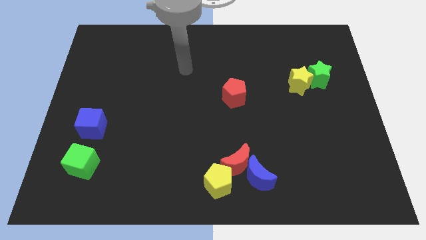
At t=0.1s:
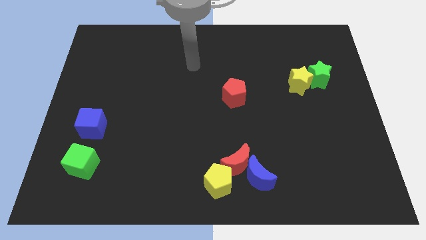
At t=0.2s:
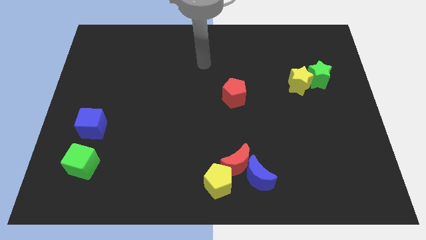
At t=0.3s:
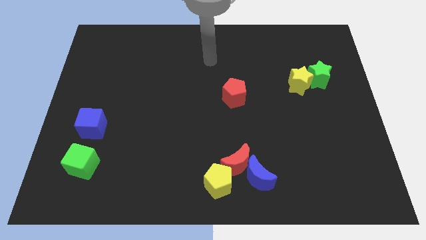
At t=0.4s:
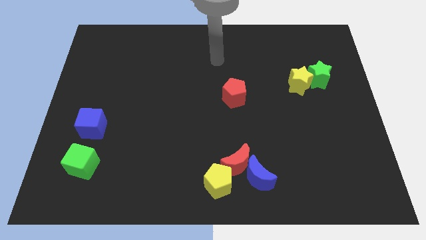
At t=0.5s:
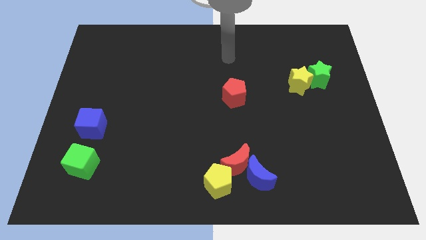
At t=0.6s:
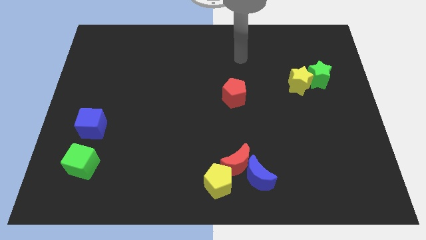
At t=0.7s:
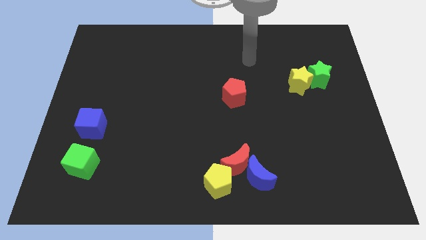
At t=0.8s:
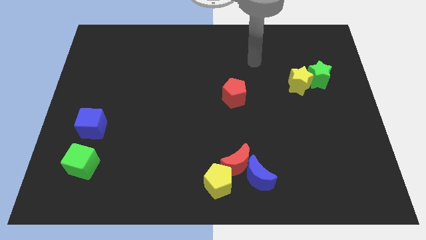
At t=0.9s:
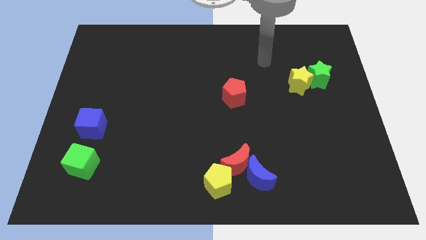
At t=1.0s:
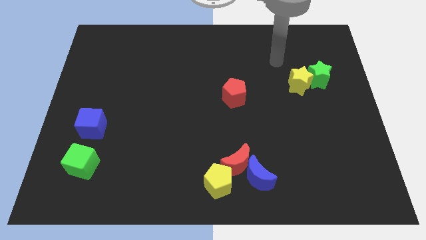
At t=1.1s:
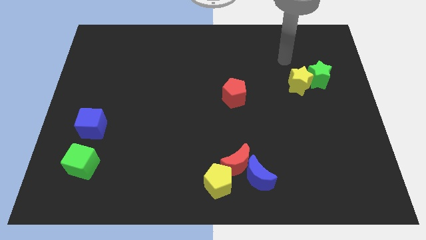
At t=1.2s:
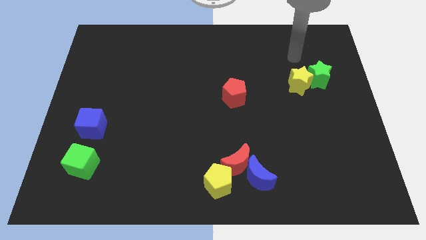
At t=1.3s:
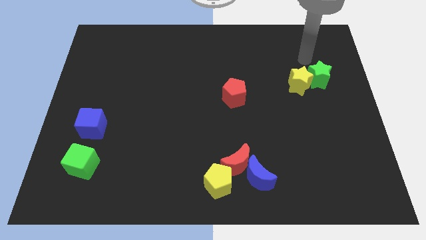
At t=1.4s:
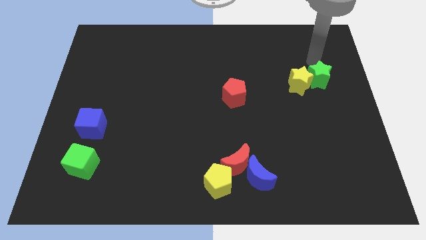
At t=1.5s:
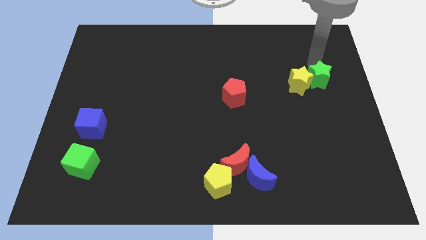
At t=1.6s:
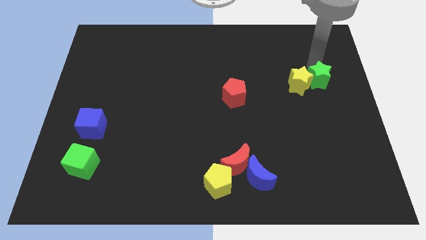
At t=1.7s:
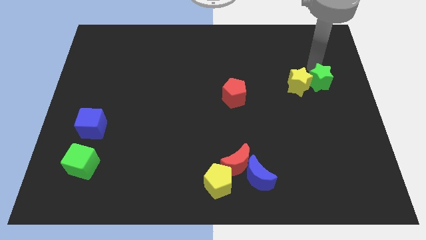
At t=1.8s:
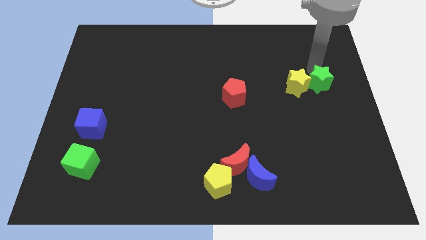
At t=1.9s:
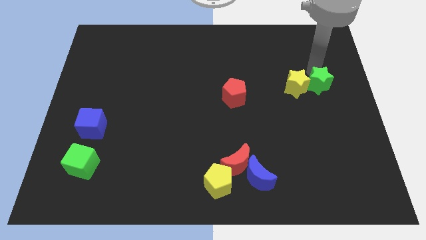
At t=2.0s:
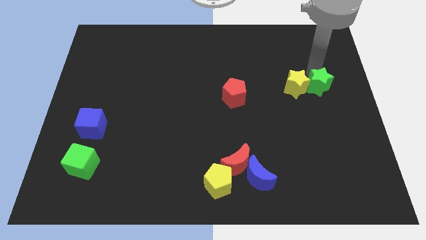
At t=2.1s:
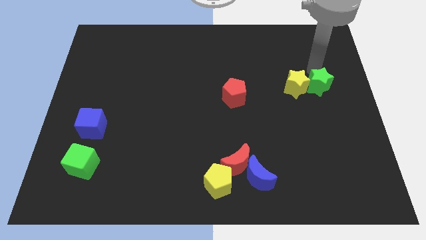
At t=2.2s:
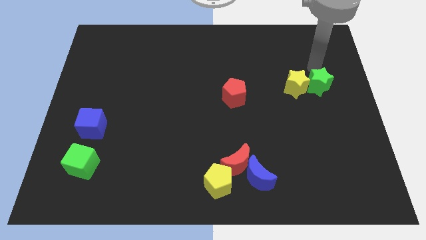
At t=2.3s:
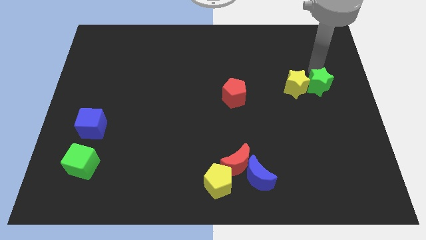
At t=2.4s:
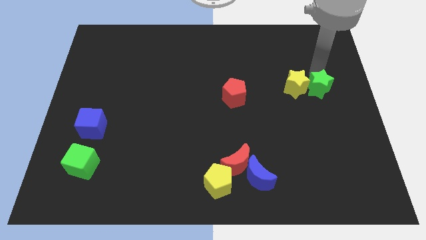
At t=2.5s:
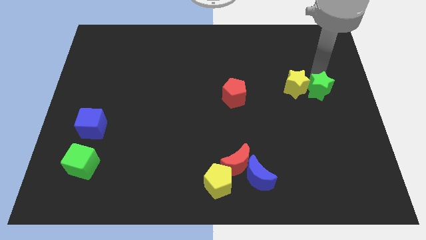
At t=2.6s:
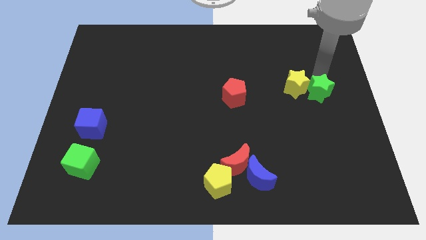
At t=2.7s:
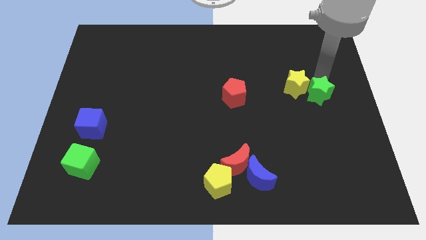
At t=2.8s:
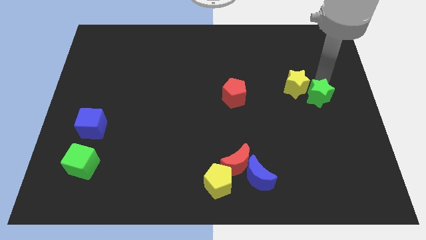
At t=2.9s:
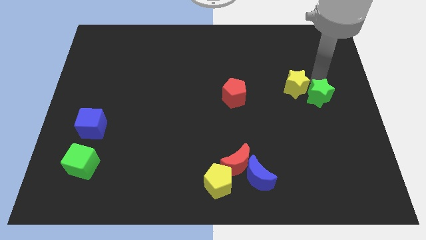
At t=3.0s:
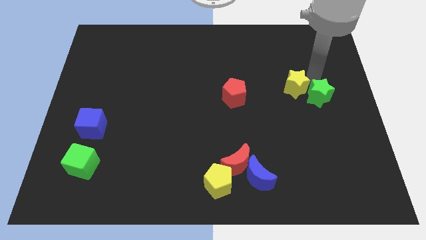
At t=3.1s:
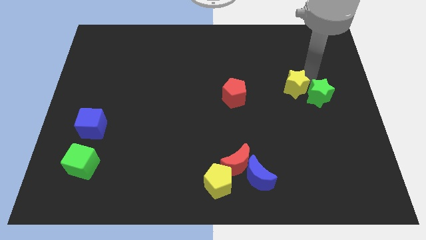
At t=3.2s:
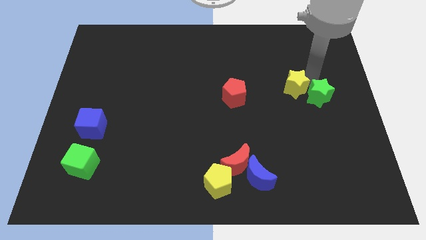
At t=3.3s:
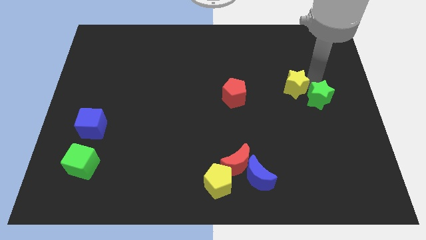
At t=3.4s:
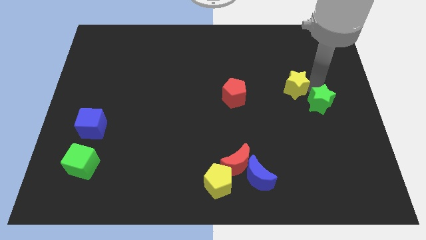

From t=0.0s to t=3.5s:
push the green star a little bit down

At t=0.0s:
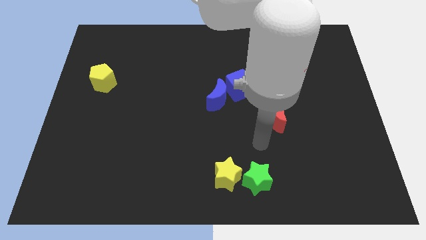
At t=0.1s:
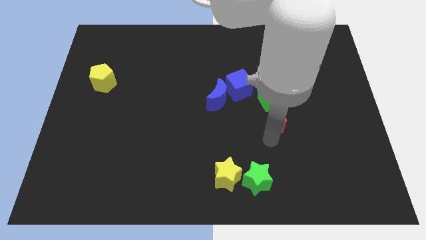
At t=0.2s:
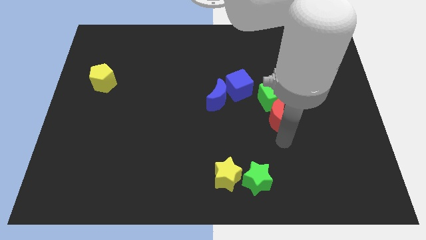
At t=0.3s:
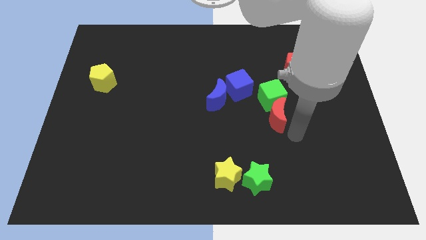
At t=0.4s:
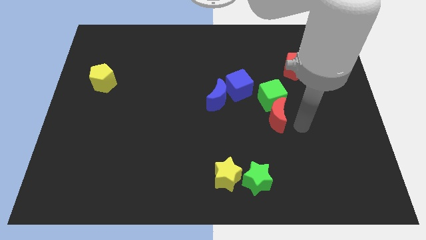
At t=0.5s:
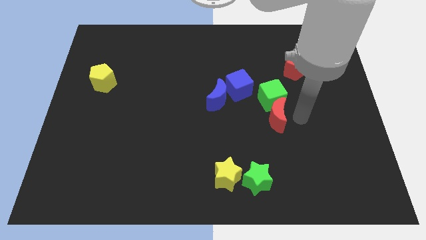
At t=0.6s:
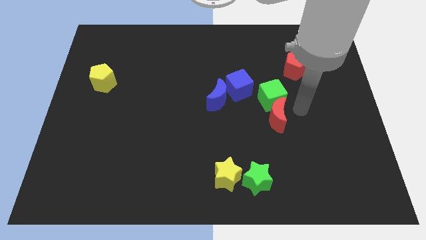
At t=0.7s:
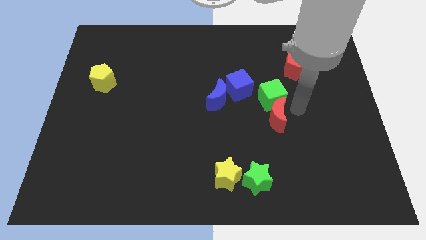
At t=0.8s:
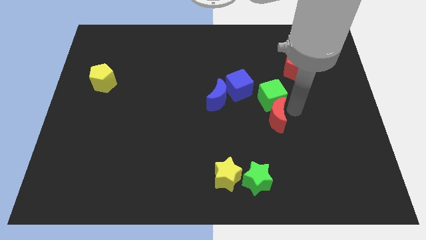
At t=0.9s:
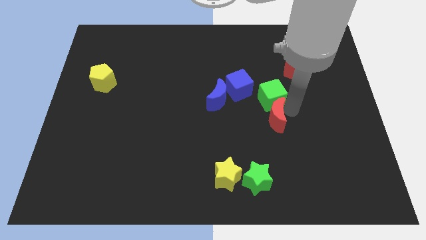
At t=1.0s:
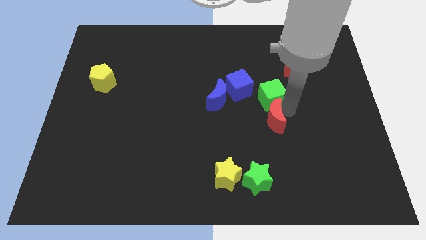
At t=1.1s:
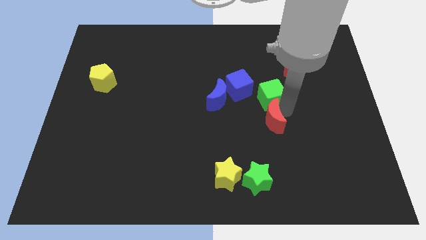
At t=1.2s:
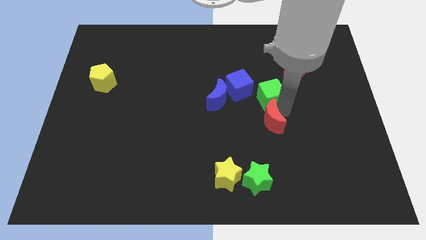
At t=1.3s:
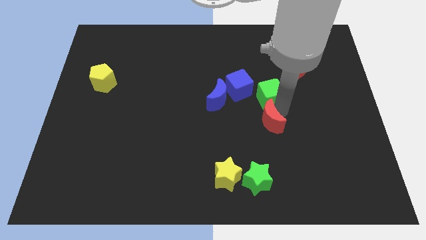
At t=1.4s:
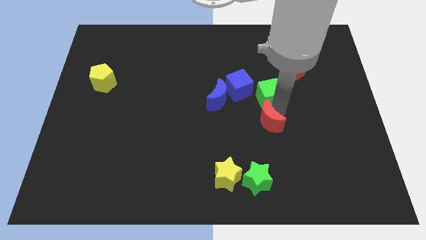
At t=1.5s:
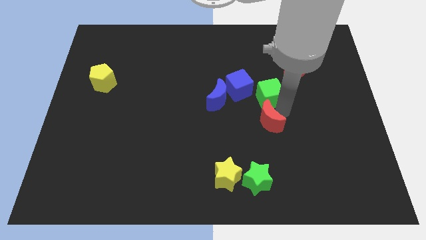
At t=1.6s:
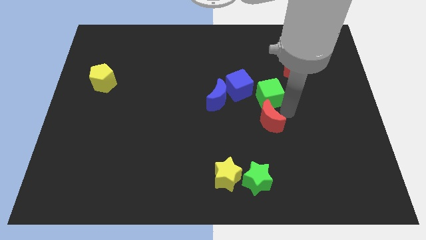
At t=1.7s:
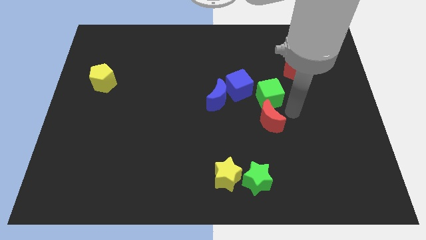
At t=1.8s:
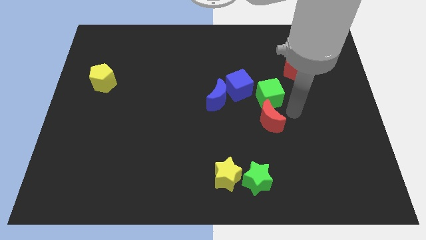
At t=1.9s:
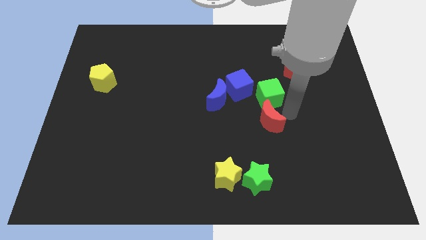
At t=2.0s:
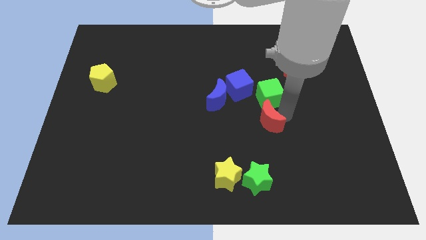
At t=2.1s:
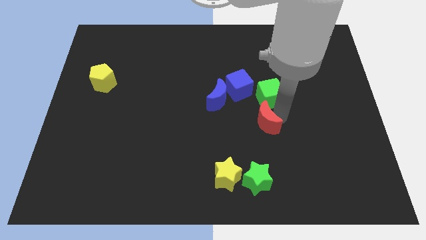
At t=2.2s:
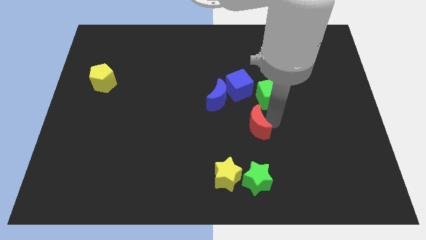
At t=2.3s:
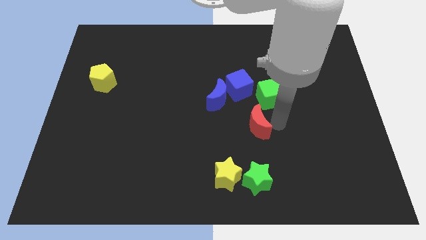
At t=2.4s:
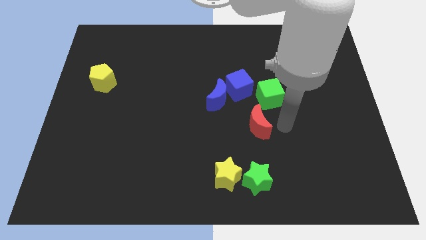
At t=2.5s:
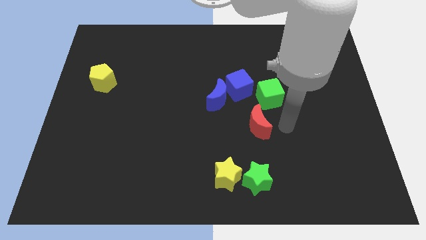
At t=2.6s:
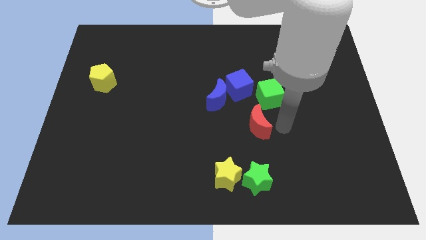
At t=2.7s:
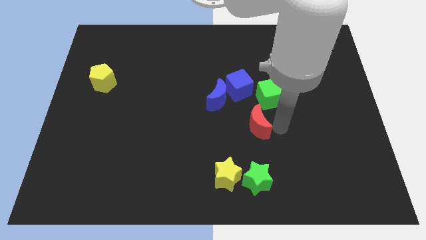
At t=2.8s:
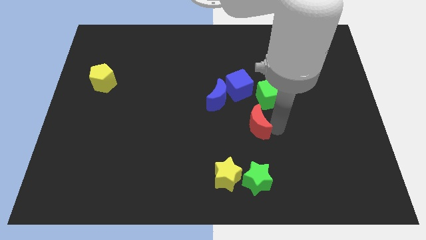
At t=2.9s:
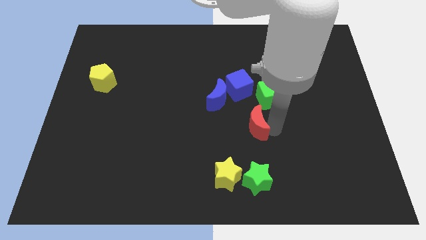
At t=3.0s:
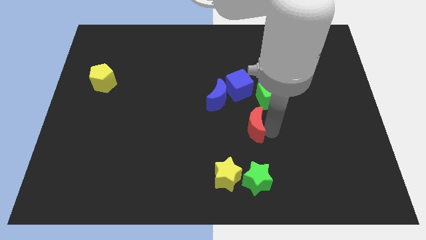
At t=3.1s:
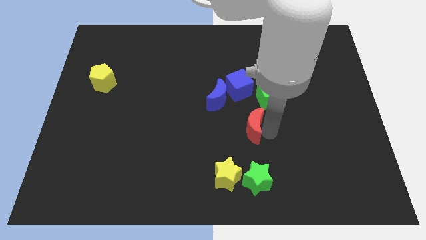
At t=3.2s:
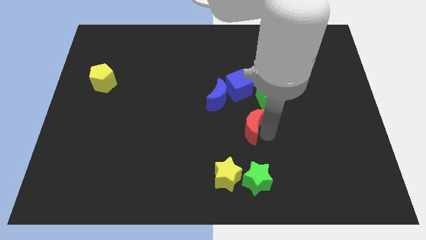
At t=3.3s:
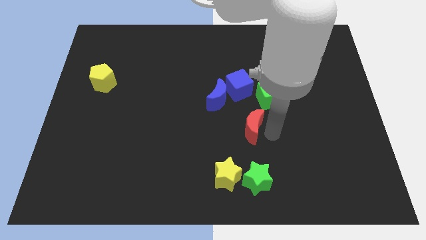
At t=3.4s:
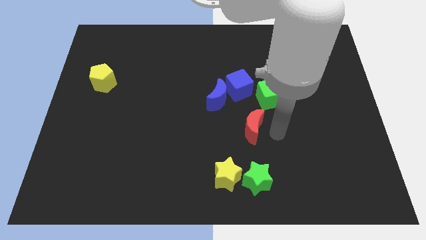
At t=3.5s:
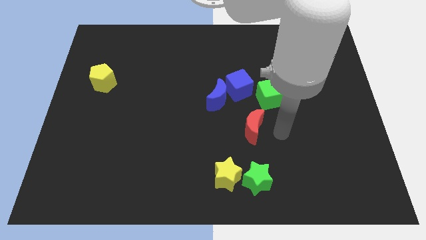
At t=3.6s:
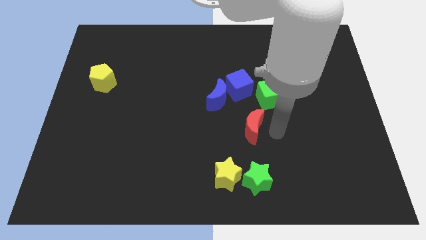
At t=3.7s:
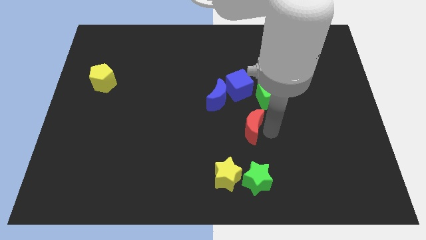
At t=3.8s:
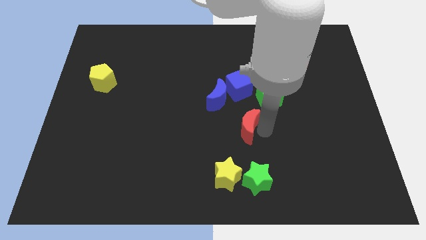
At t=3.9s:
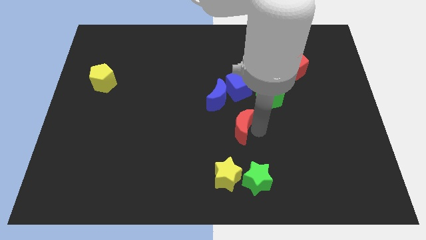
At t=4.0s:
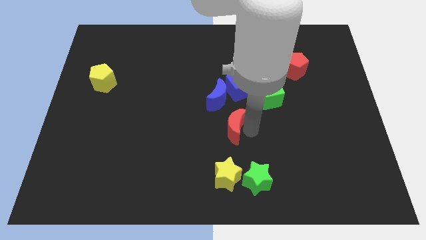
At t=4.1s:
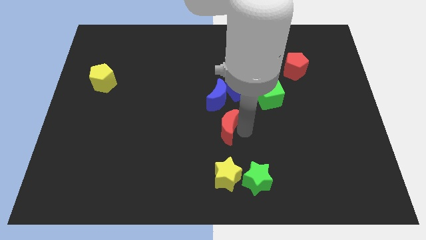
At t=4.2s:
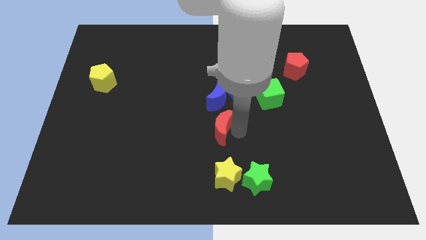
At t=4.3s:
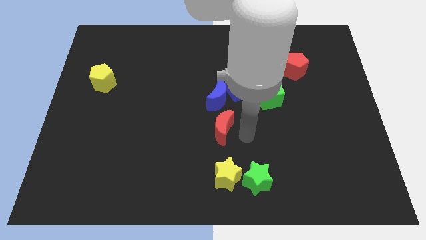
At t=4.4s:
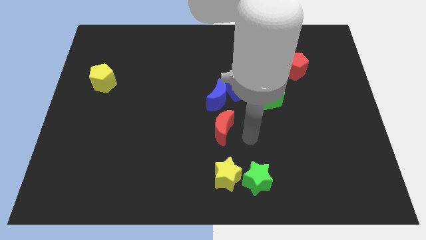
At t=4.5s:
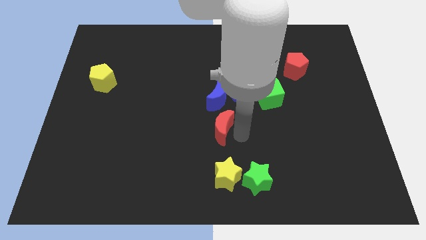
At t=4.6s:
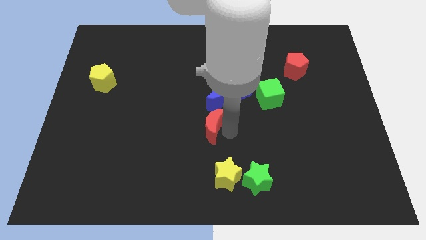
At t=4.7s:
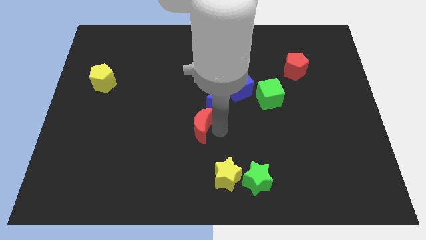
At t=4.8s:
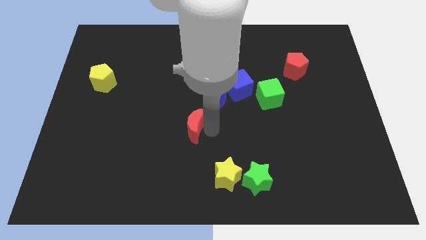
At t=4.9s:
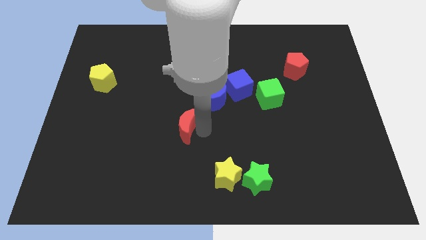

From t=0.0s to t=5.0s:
slide the red moon left
